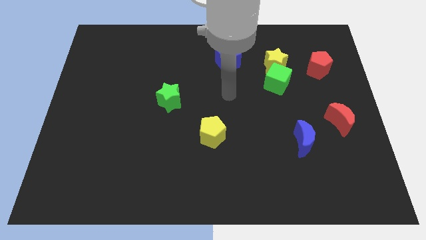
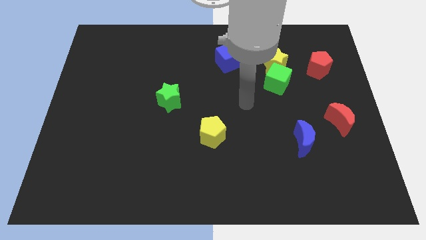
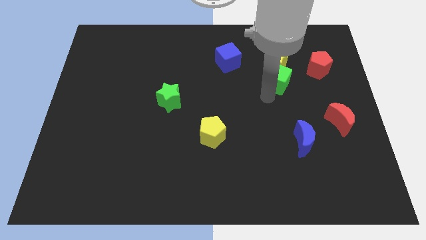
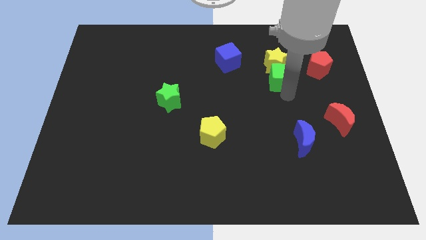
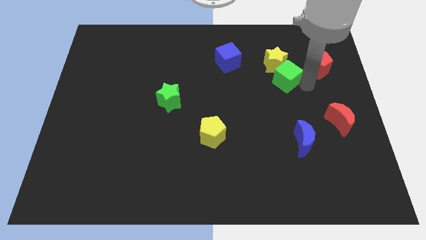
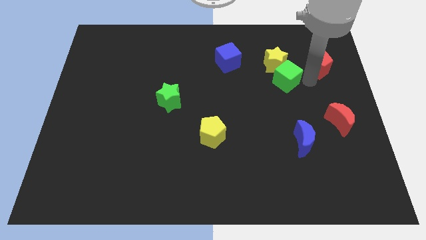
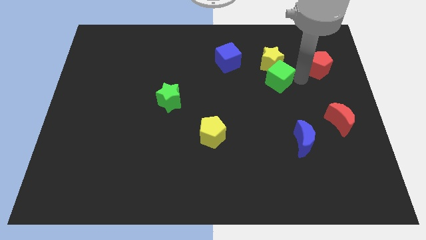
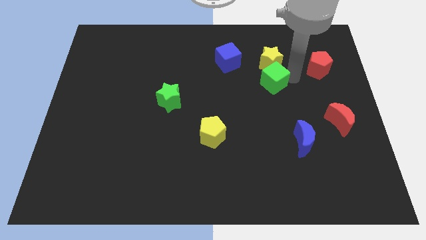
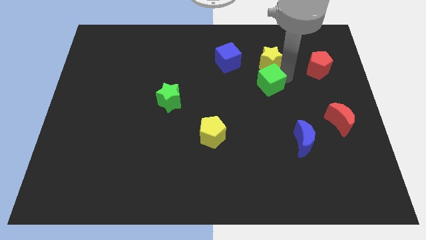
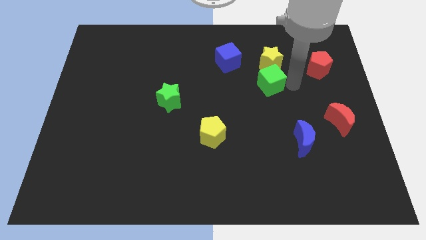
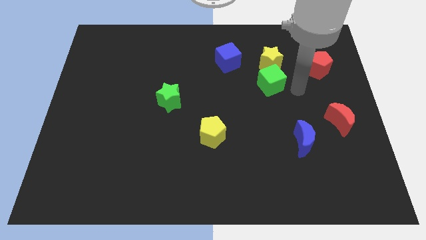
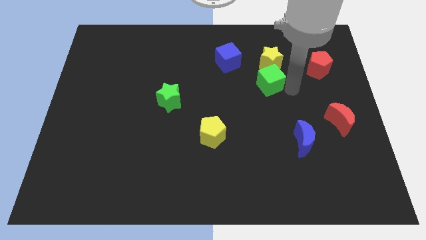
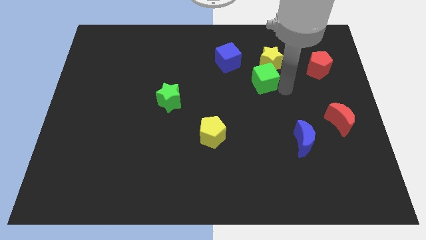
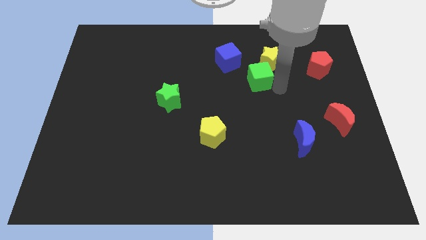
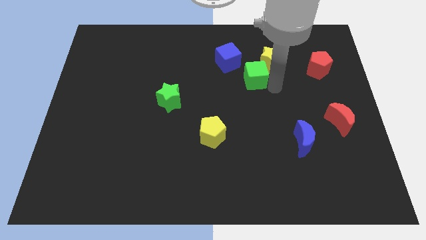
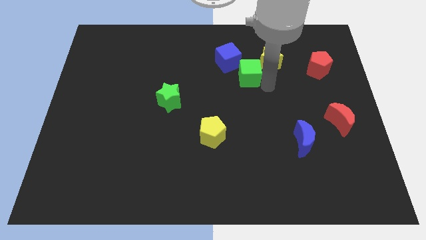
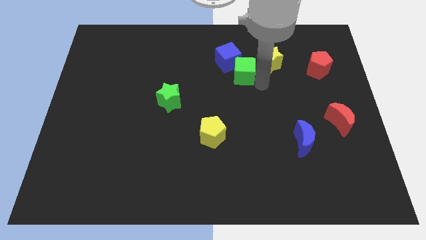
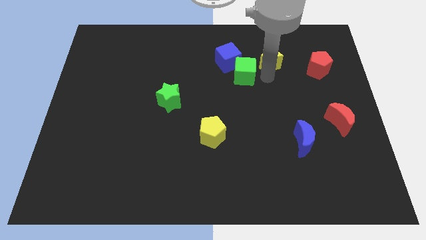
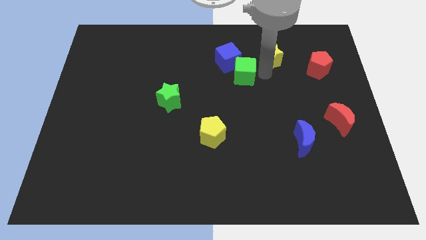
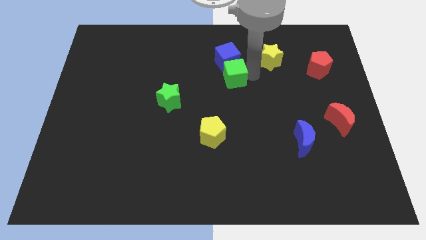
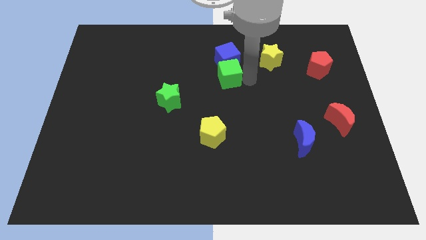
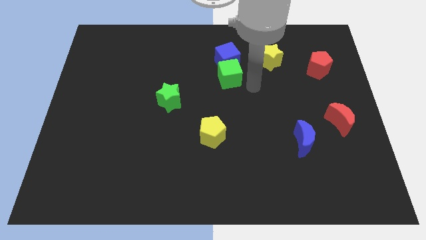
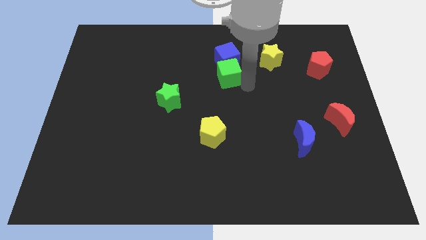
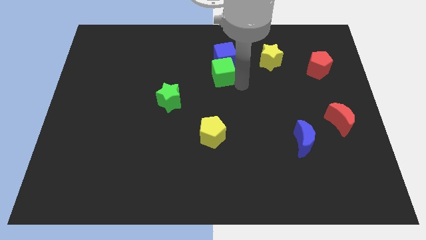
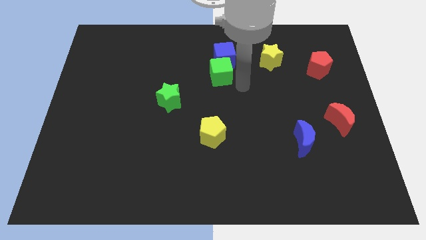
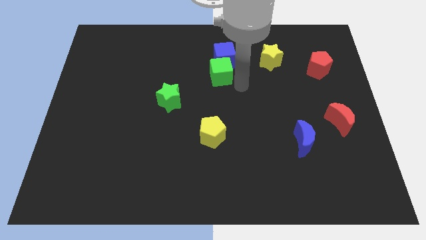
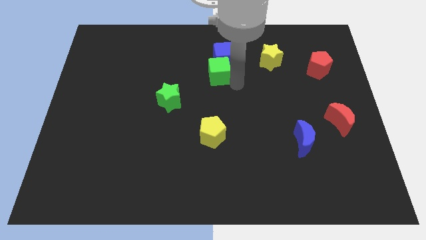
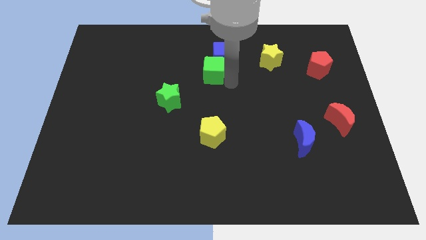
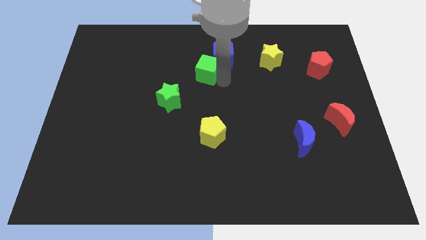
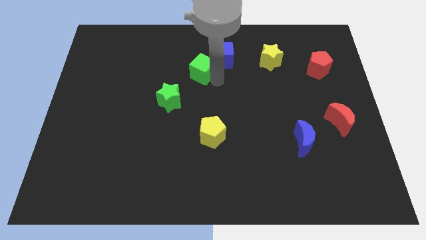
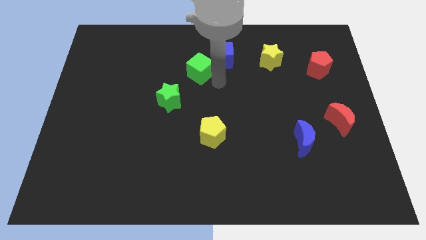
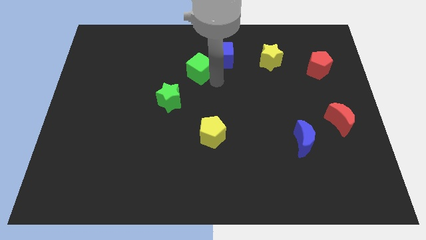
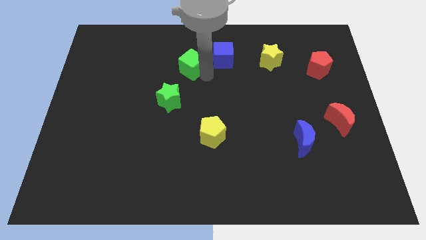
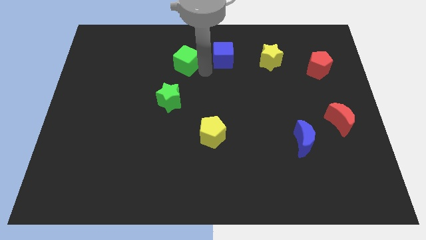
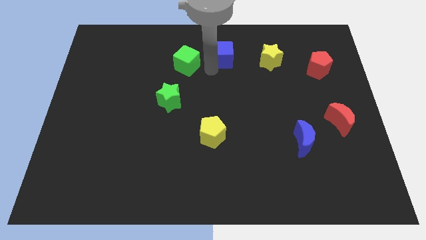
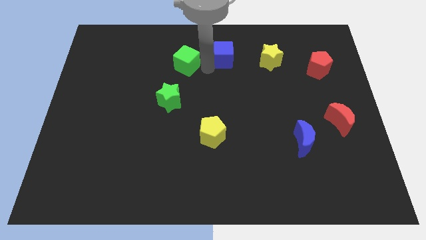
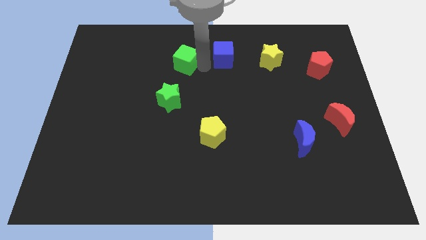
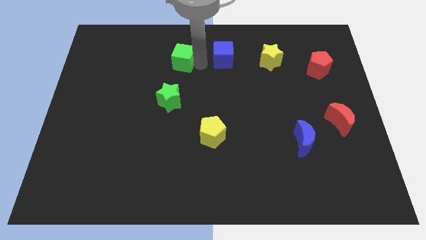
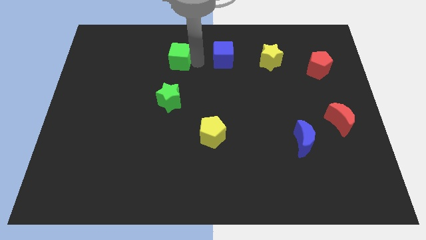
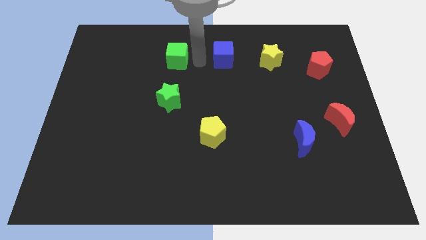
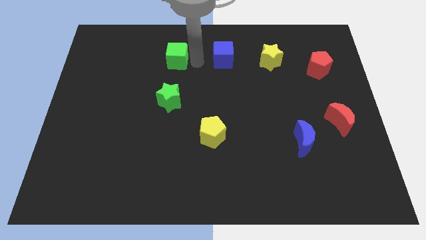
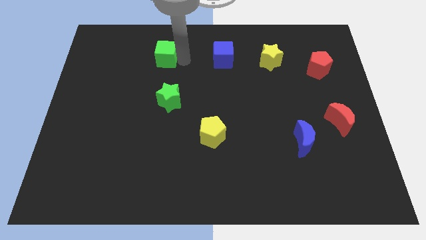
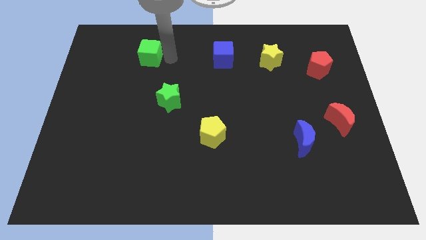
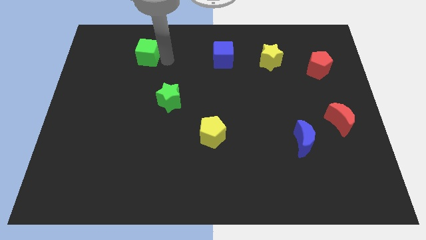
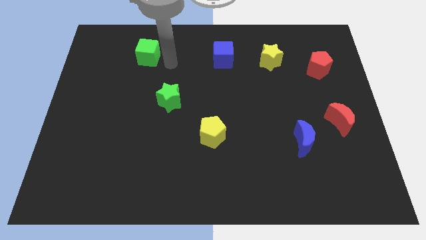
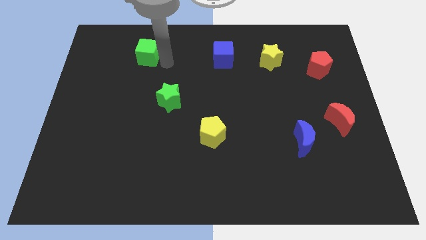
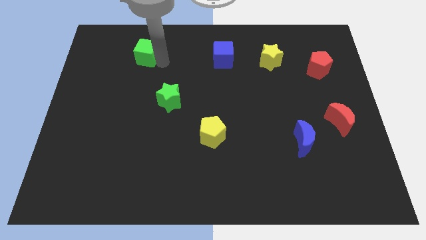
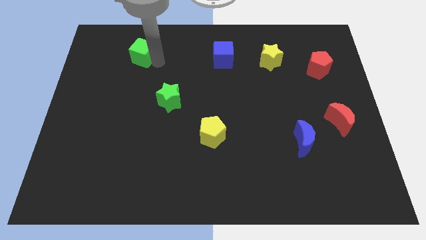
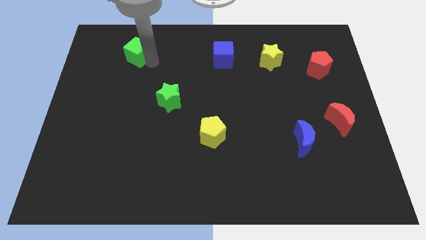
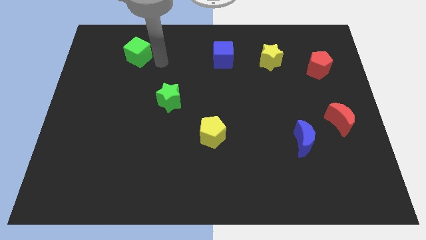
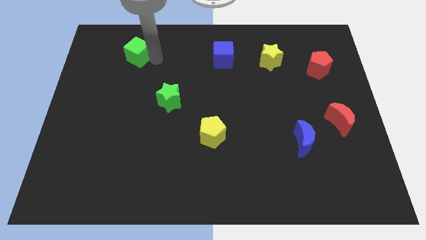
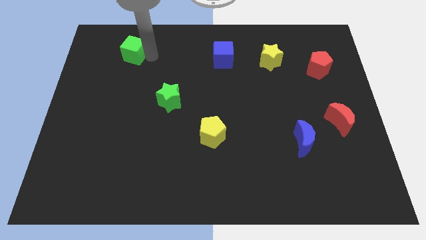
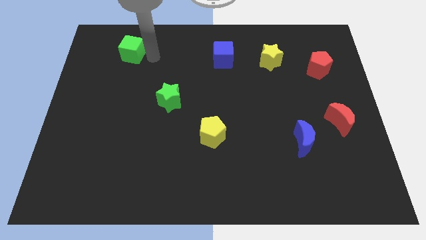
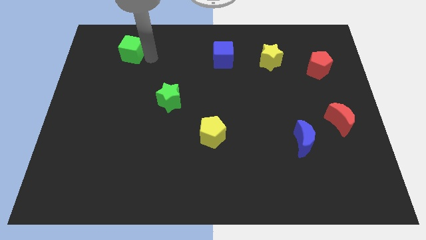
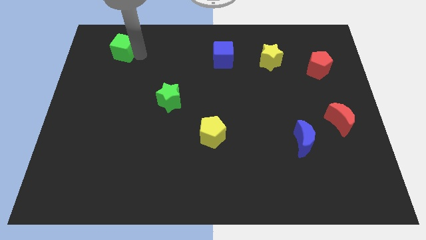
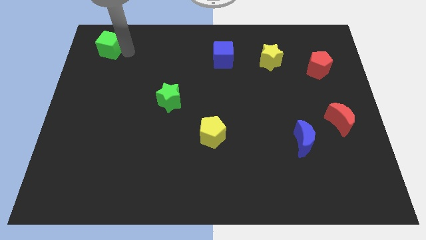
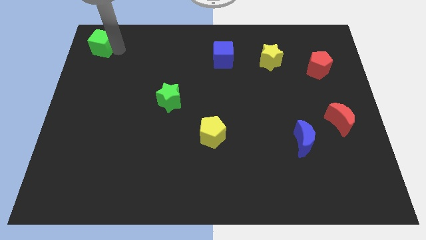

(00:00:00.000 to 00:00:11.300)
slide the green cube to the upper left corner
